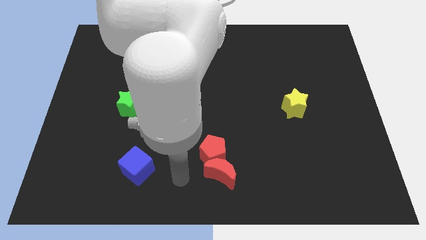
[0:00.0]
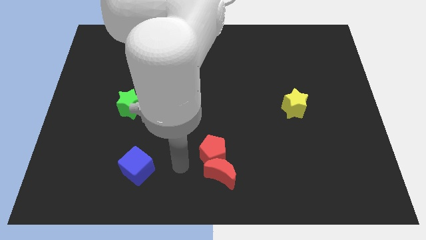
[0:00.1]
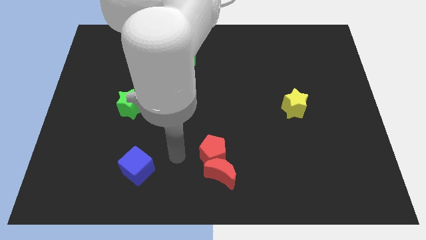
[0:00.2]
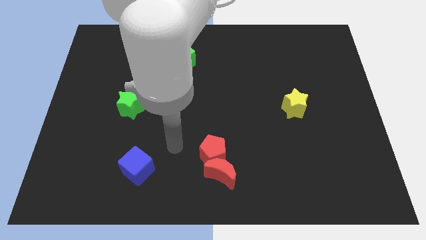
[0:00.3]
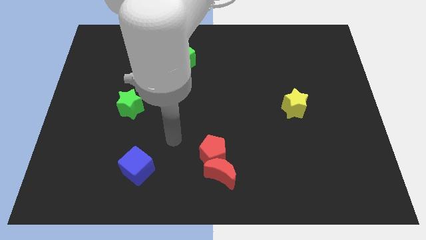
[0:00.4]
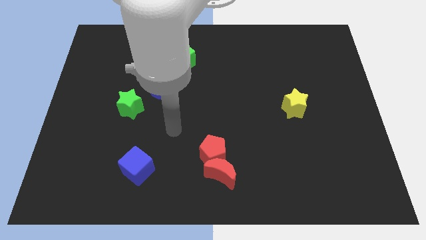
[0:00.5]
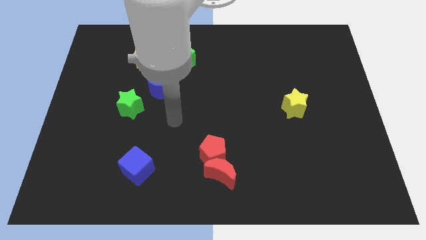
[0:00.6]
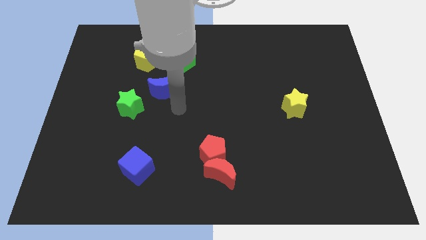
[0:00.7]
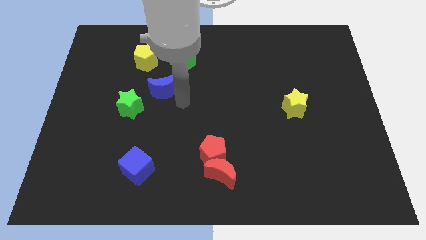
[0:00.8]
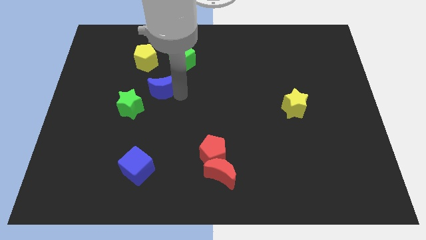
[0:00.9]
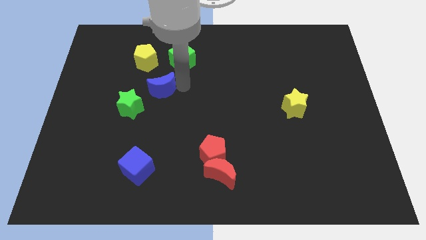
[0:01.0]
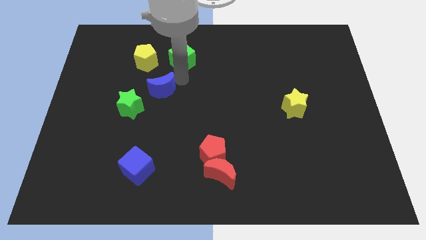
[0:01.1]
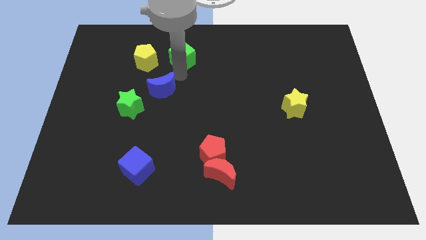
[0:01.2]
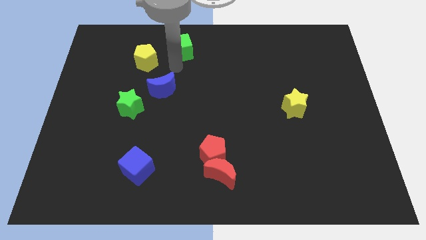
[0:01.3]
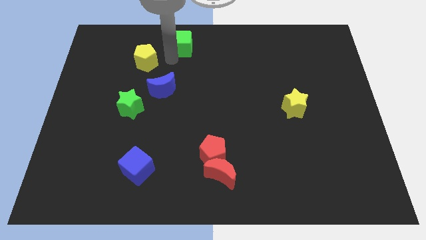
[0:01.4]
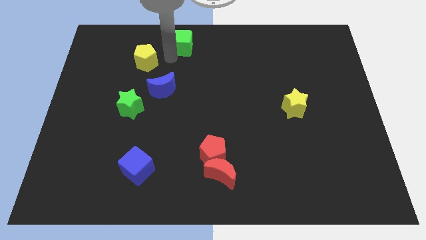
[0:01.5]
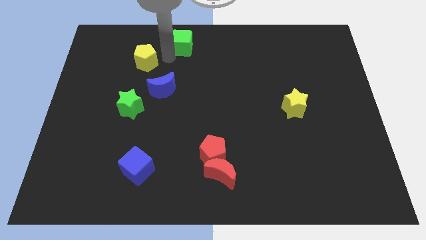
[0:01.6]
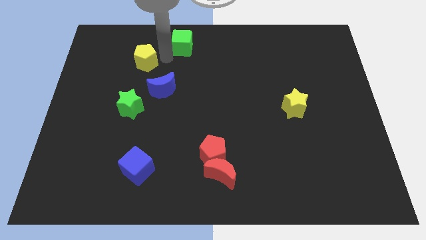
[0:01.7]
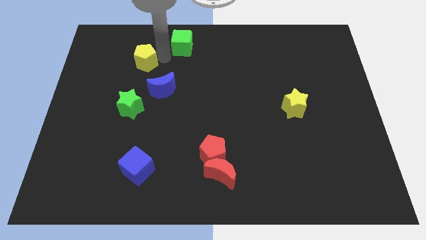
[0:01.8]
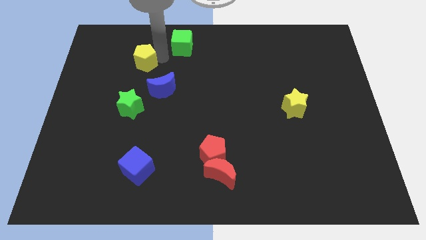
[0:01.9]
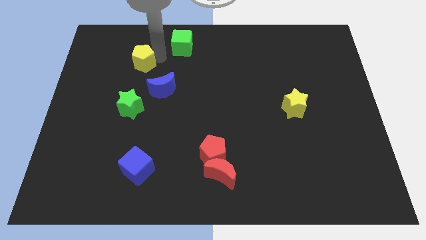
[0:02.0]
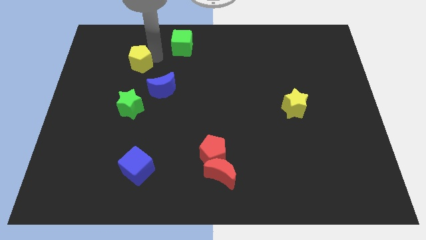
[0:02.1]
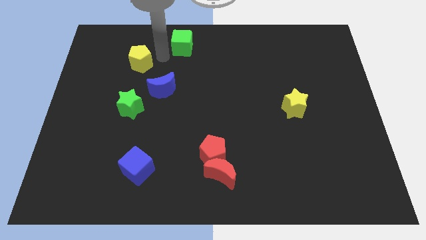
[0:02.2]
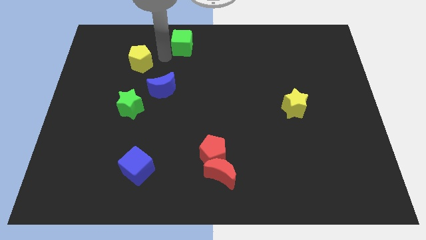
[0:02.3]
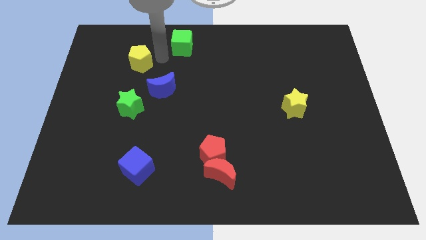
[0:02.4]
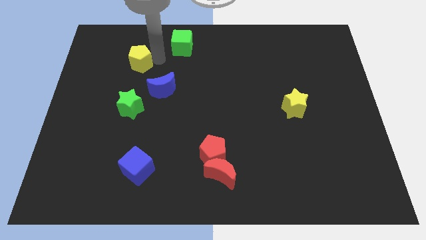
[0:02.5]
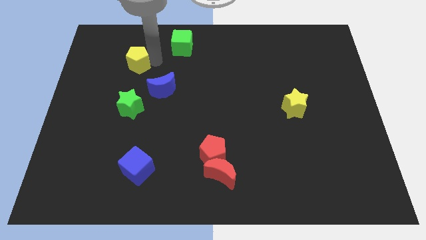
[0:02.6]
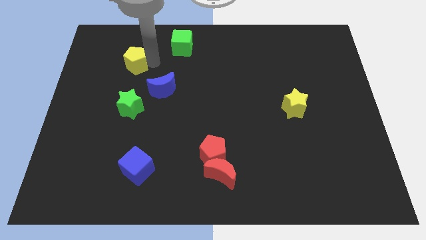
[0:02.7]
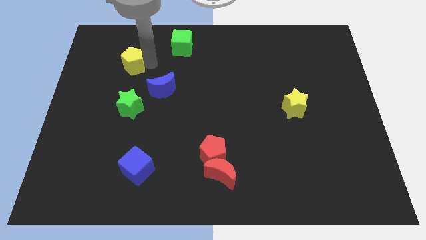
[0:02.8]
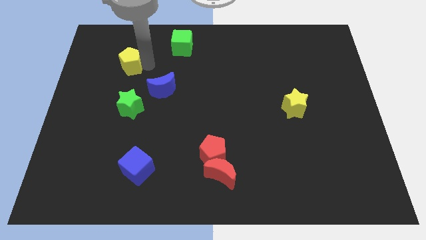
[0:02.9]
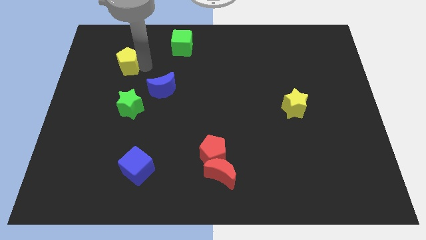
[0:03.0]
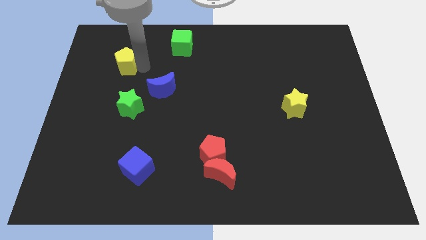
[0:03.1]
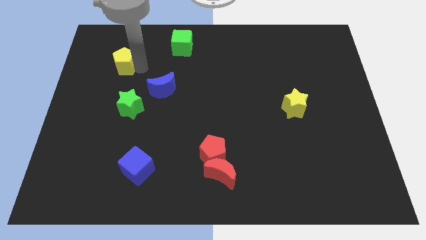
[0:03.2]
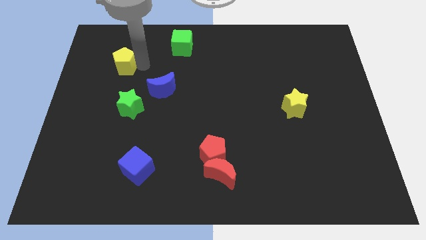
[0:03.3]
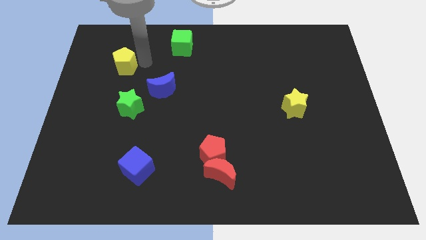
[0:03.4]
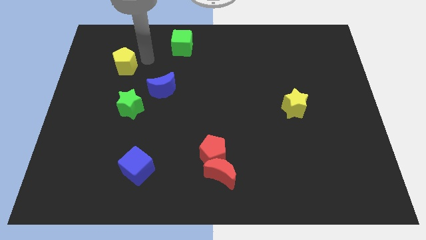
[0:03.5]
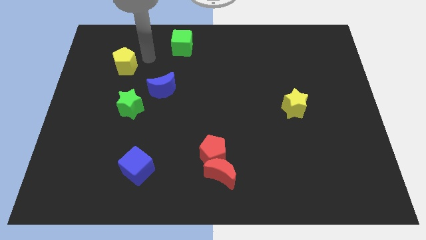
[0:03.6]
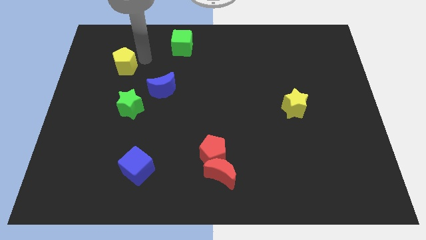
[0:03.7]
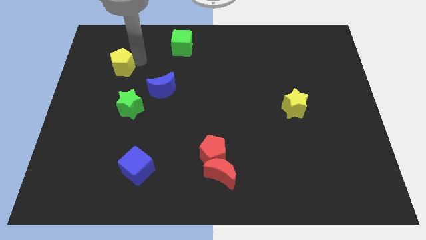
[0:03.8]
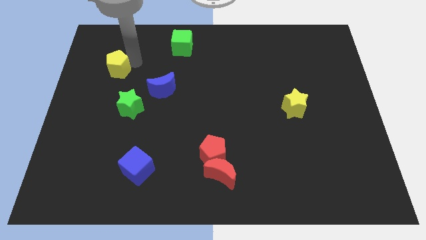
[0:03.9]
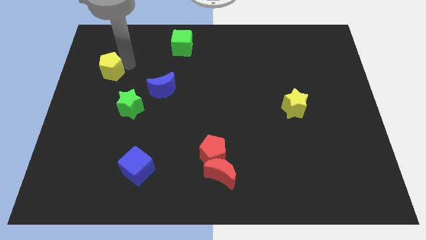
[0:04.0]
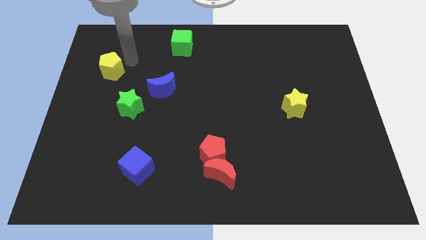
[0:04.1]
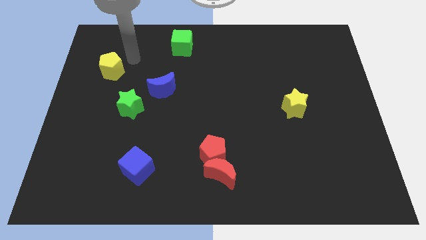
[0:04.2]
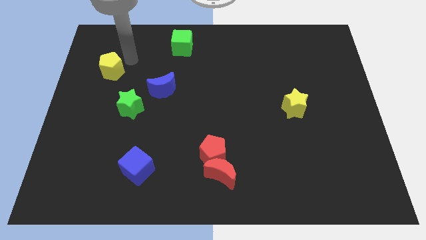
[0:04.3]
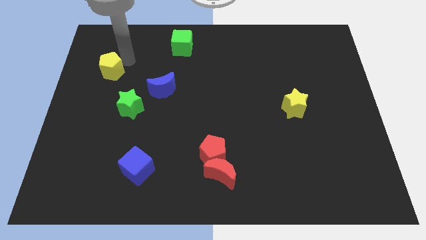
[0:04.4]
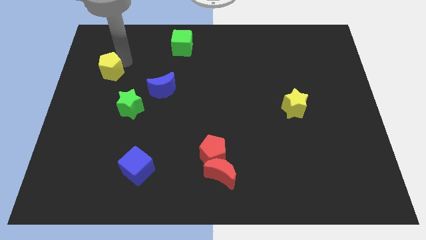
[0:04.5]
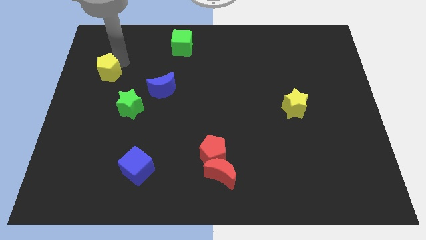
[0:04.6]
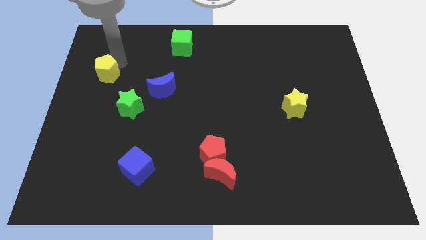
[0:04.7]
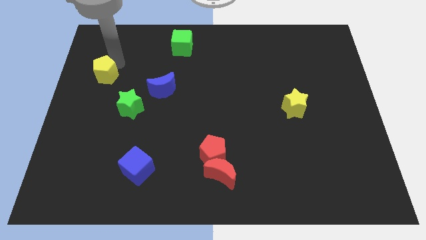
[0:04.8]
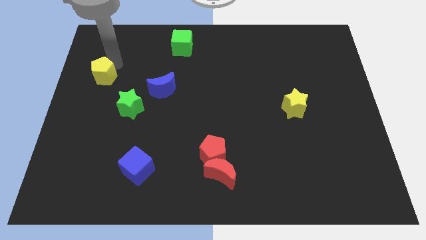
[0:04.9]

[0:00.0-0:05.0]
push the yellow pentagon to the left side of the board

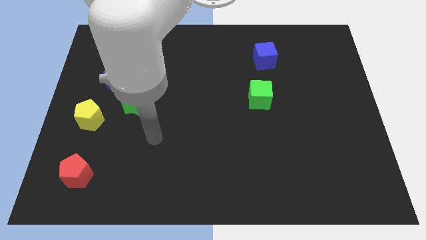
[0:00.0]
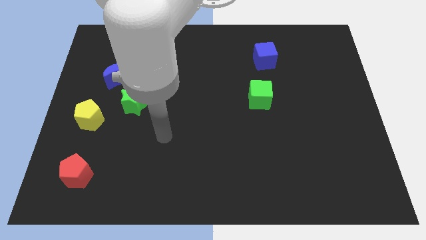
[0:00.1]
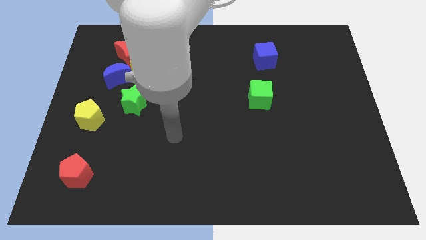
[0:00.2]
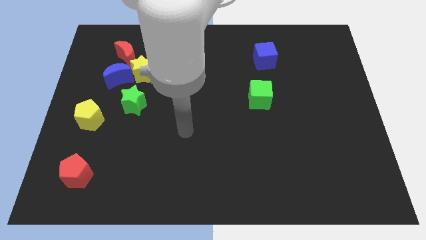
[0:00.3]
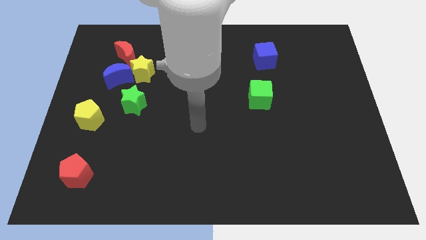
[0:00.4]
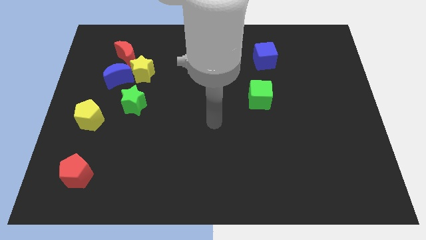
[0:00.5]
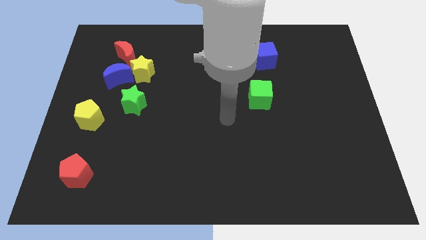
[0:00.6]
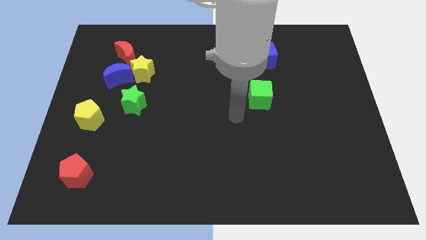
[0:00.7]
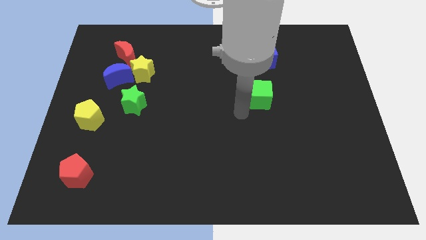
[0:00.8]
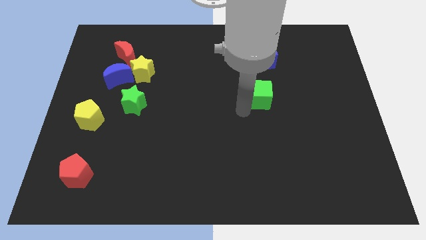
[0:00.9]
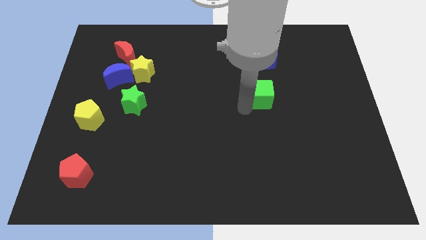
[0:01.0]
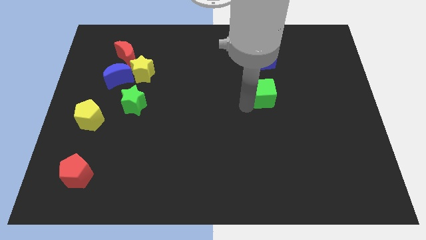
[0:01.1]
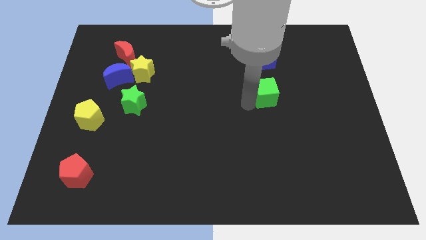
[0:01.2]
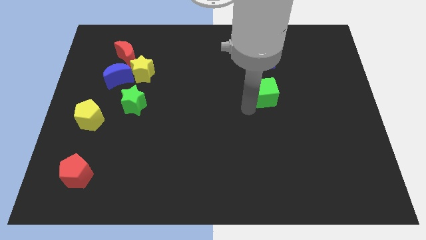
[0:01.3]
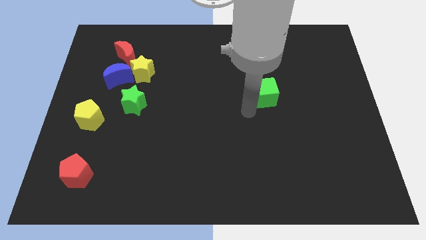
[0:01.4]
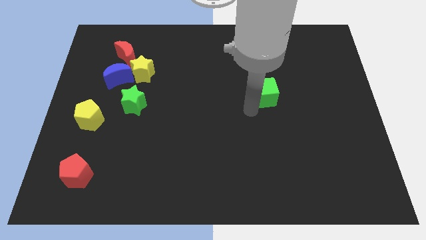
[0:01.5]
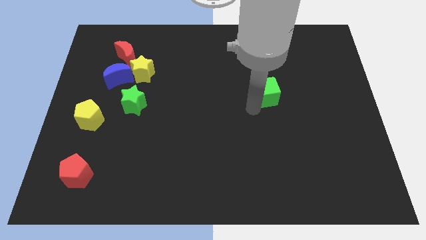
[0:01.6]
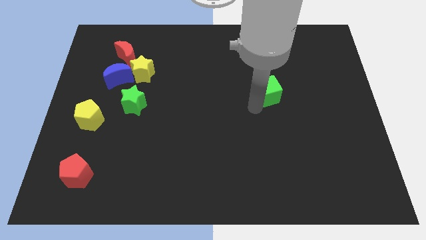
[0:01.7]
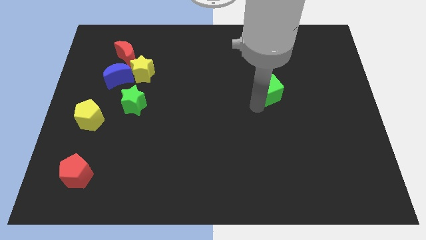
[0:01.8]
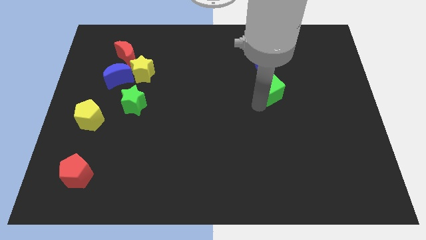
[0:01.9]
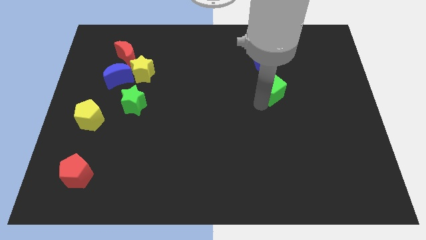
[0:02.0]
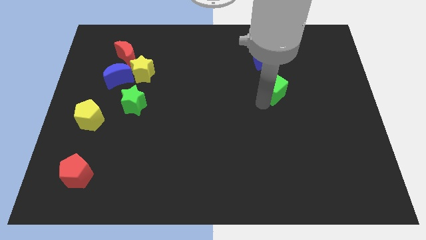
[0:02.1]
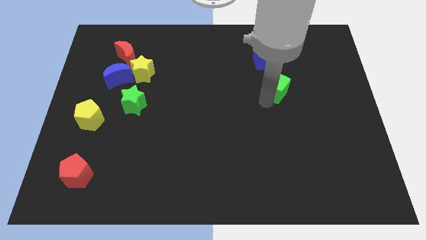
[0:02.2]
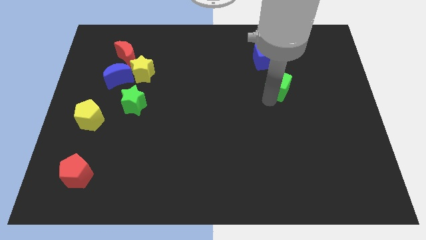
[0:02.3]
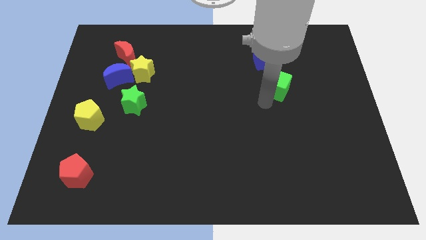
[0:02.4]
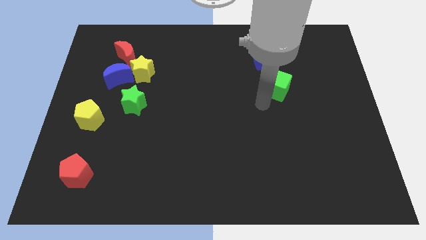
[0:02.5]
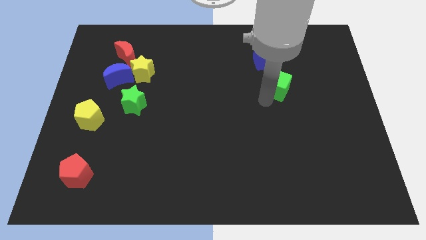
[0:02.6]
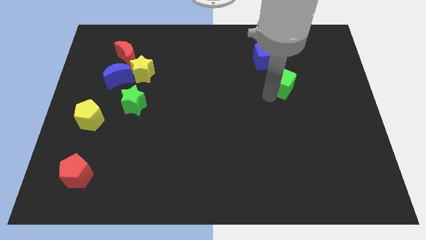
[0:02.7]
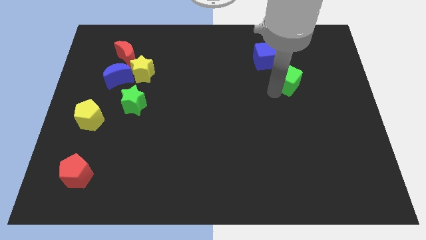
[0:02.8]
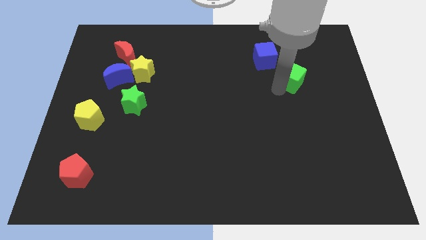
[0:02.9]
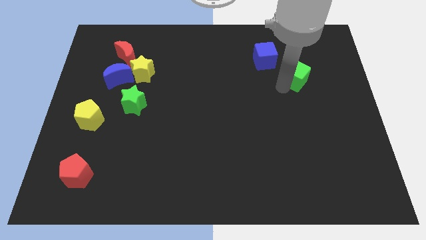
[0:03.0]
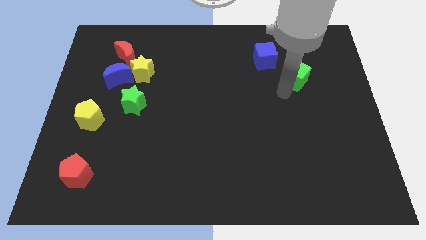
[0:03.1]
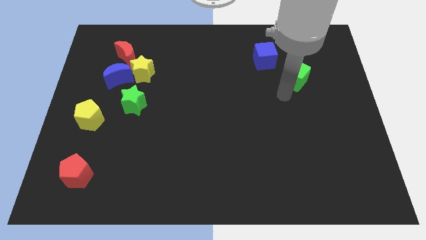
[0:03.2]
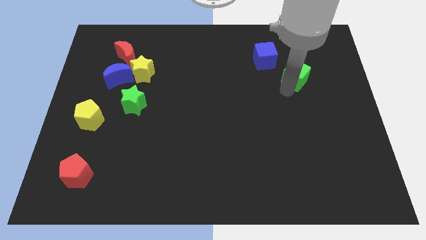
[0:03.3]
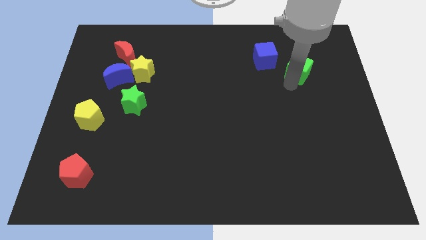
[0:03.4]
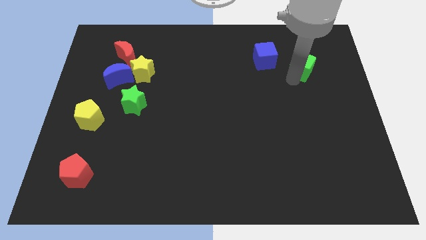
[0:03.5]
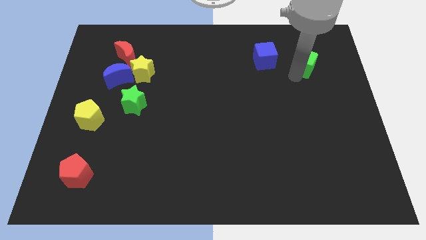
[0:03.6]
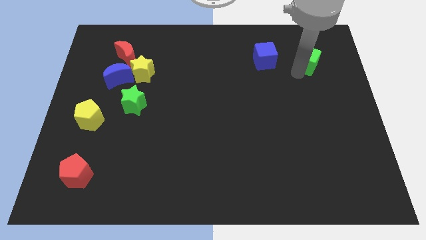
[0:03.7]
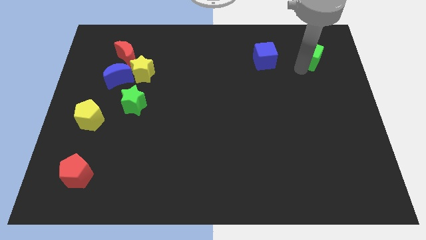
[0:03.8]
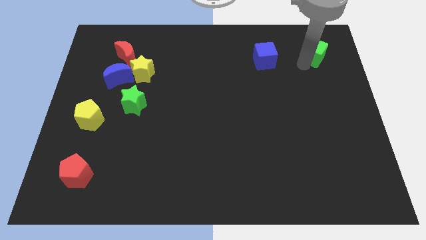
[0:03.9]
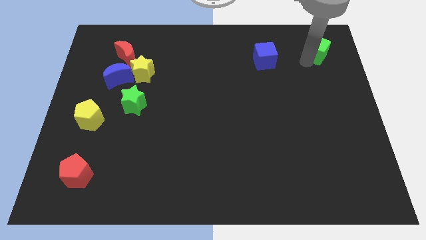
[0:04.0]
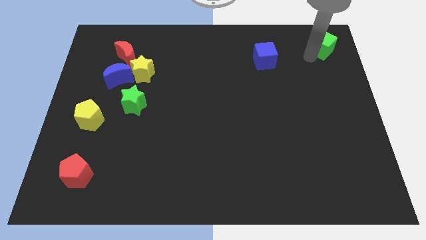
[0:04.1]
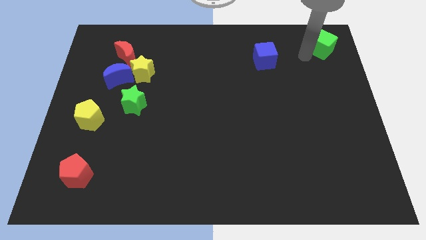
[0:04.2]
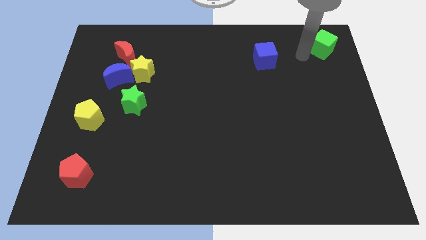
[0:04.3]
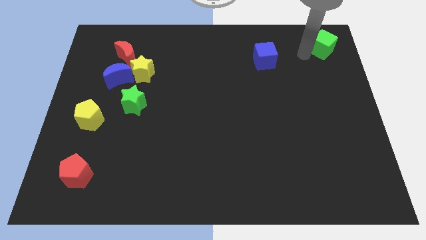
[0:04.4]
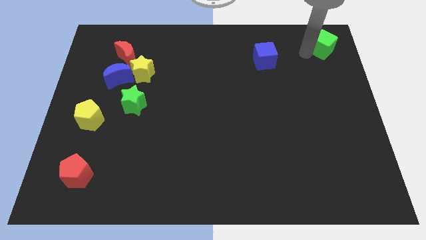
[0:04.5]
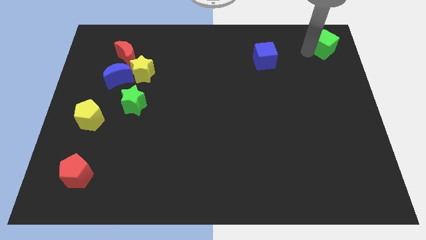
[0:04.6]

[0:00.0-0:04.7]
put the green cube to the top right
